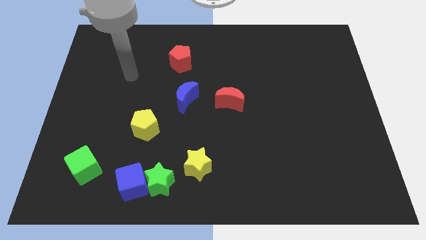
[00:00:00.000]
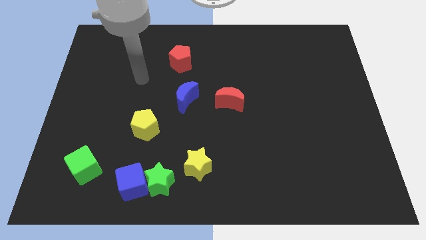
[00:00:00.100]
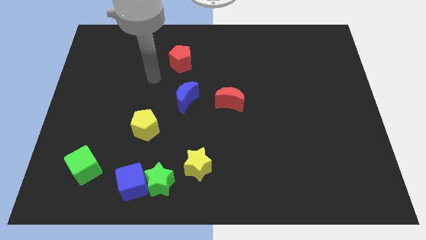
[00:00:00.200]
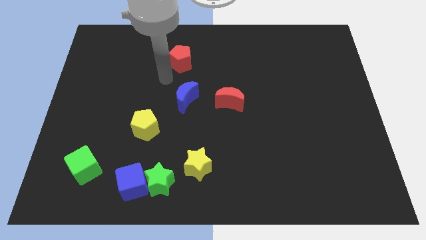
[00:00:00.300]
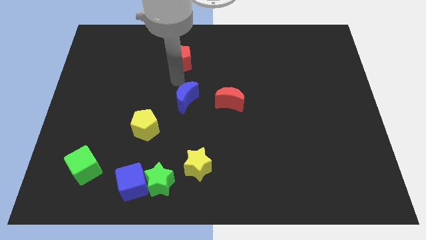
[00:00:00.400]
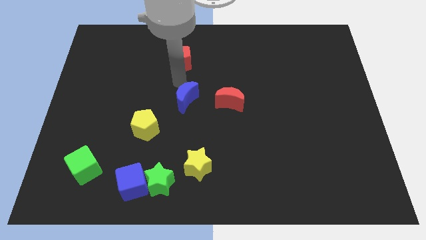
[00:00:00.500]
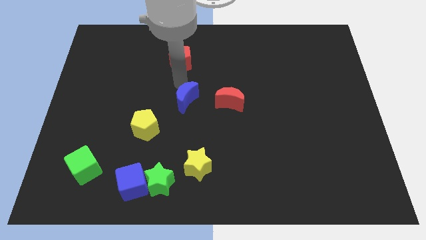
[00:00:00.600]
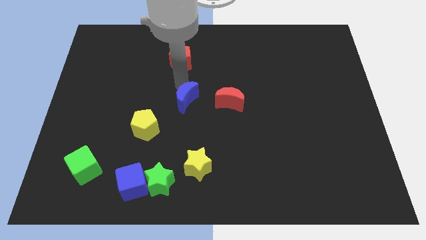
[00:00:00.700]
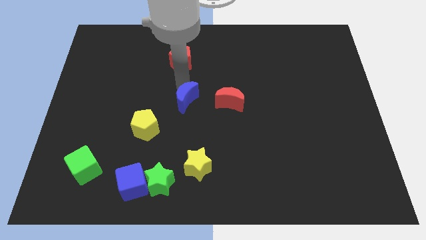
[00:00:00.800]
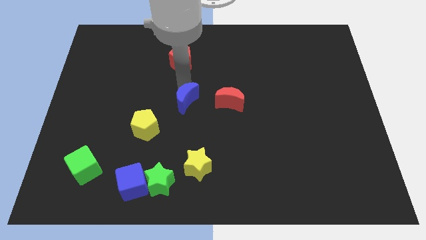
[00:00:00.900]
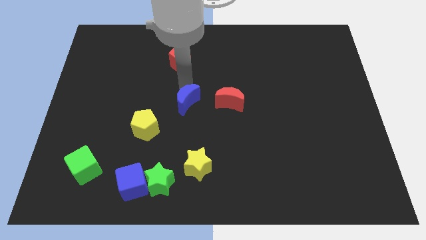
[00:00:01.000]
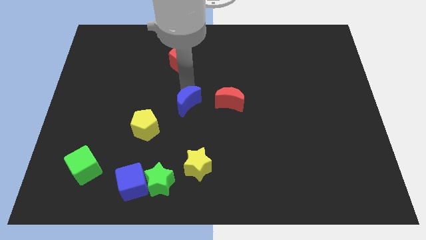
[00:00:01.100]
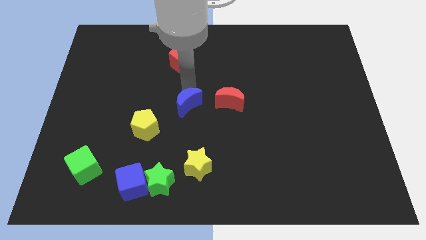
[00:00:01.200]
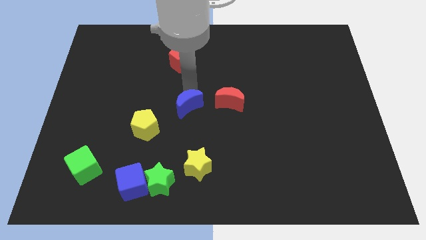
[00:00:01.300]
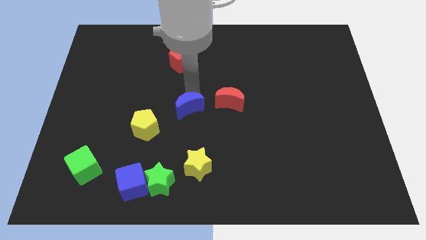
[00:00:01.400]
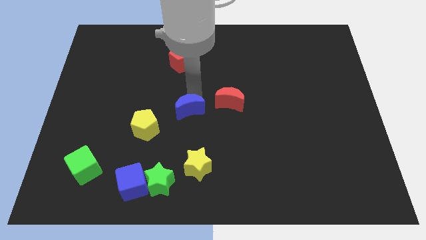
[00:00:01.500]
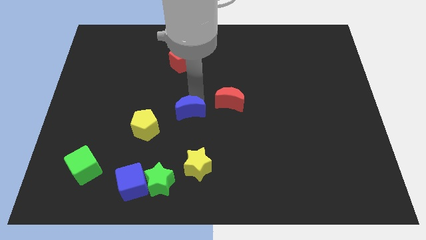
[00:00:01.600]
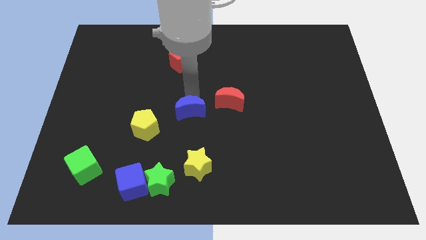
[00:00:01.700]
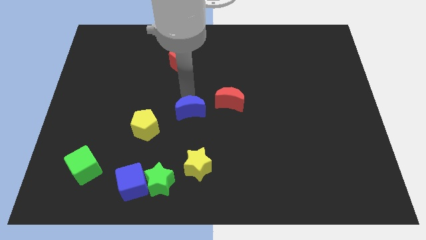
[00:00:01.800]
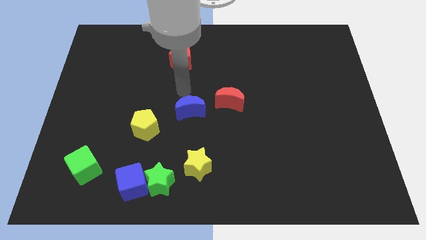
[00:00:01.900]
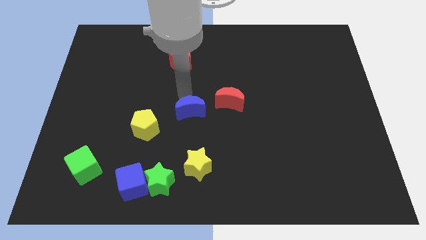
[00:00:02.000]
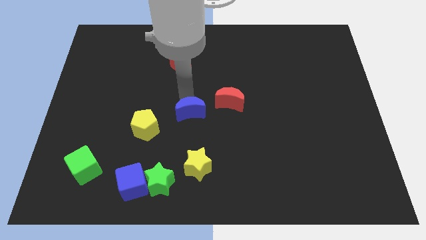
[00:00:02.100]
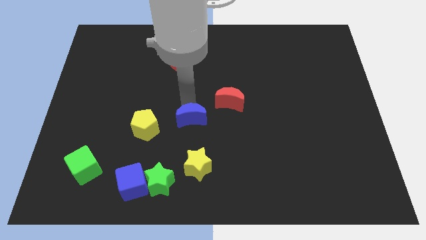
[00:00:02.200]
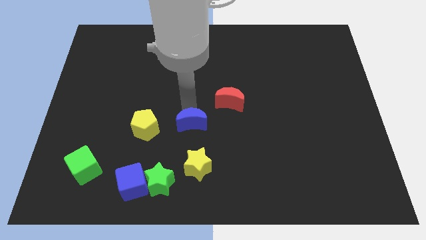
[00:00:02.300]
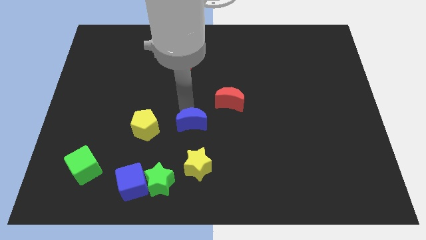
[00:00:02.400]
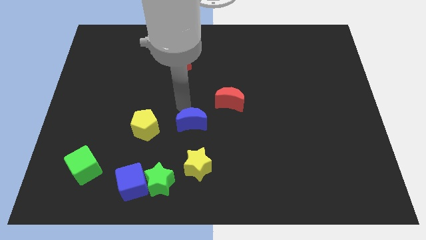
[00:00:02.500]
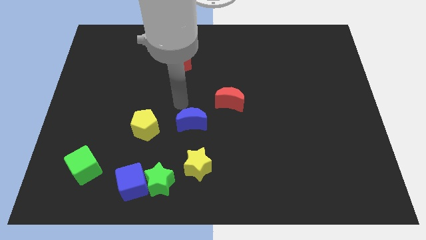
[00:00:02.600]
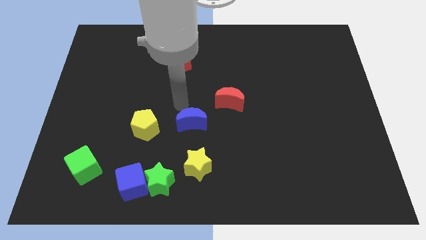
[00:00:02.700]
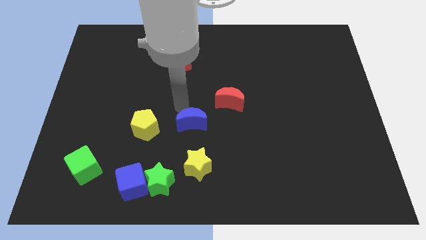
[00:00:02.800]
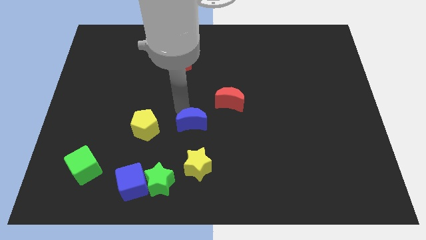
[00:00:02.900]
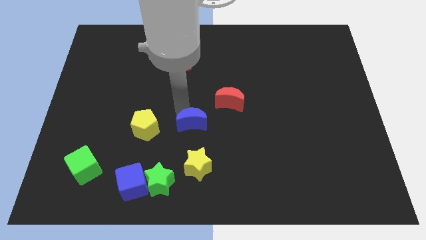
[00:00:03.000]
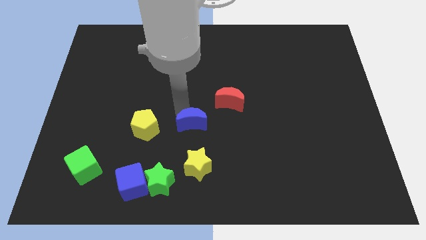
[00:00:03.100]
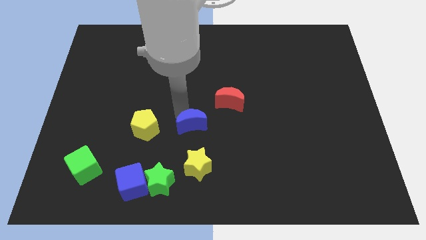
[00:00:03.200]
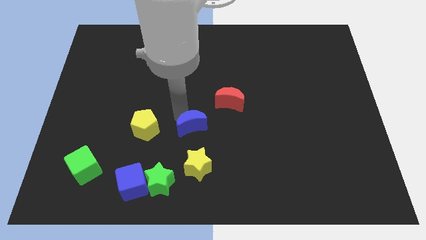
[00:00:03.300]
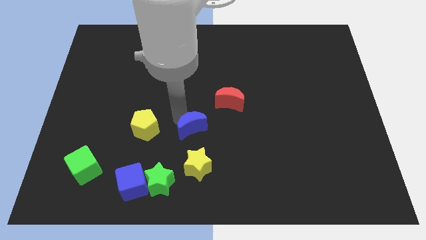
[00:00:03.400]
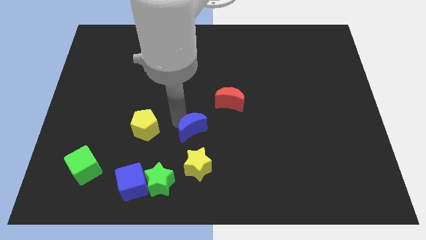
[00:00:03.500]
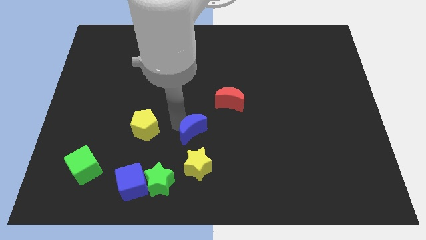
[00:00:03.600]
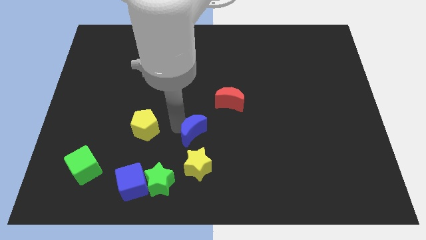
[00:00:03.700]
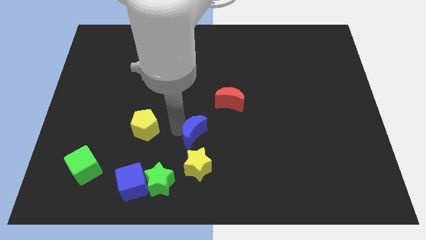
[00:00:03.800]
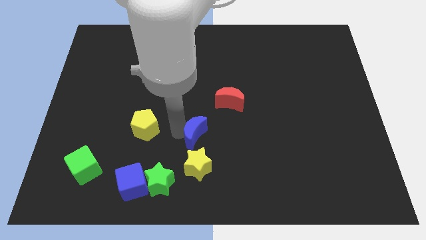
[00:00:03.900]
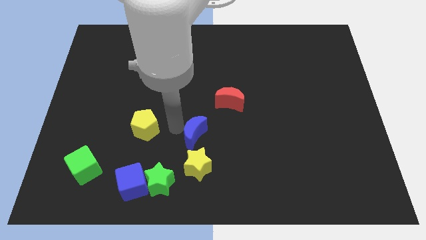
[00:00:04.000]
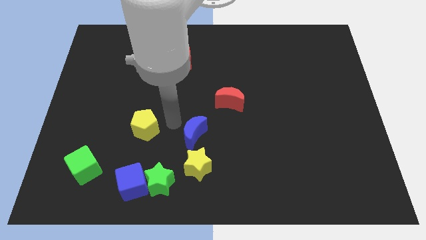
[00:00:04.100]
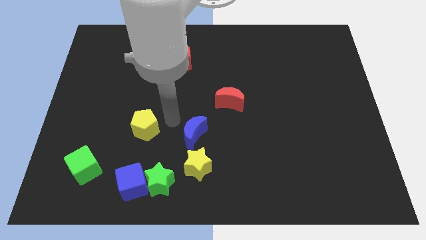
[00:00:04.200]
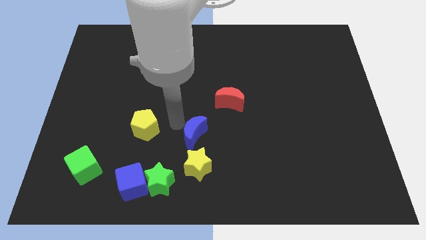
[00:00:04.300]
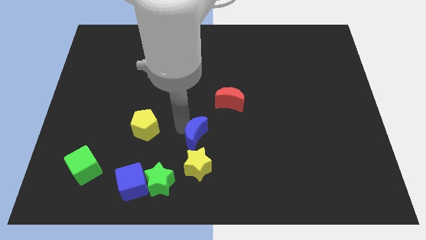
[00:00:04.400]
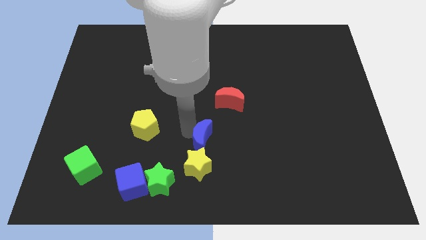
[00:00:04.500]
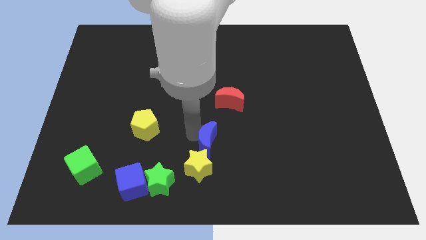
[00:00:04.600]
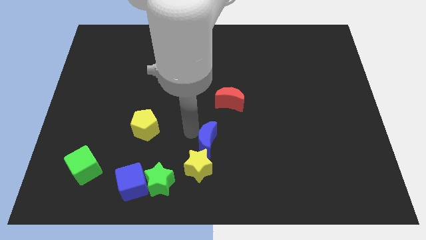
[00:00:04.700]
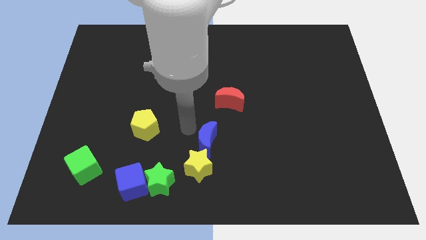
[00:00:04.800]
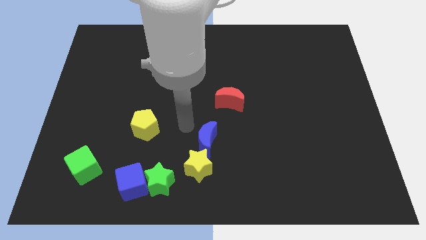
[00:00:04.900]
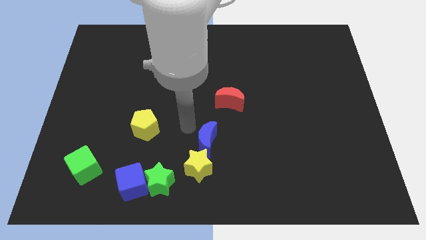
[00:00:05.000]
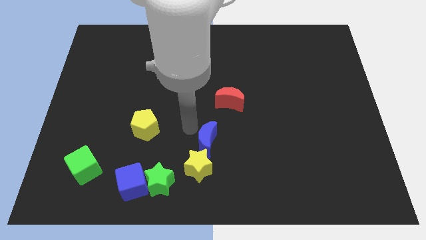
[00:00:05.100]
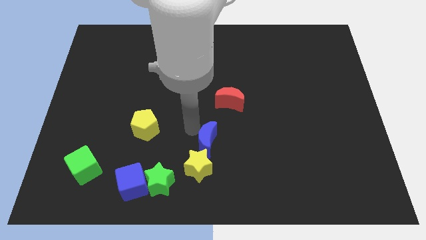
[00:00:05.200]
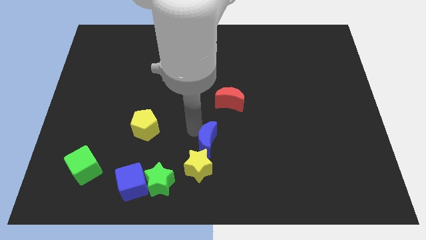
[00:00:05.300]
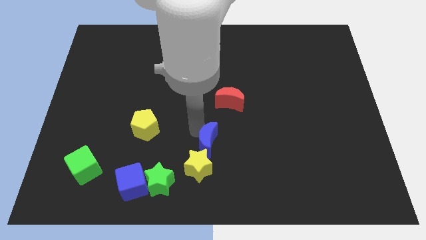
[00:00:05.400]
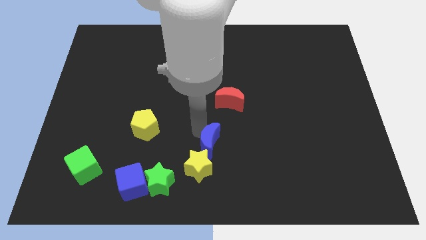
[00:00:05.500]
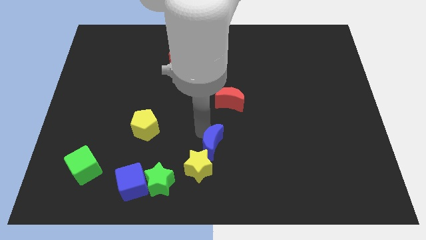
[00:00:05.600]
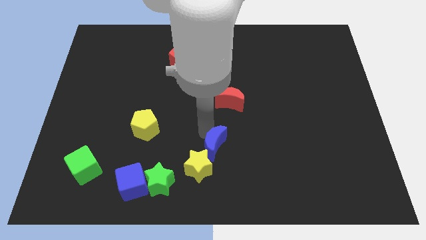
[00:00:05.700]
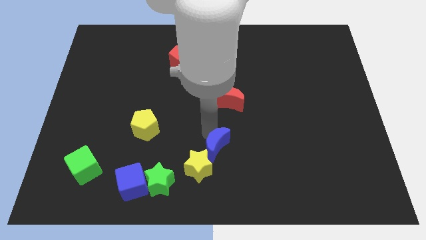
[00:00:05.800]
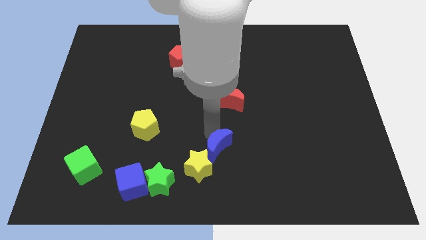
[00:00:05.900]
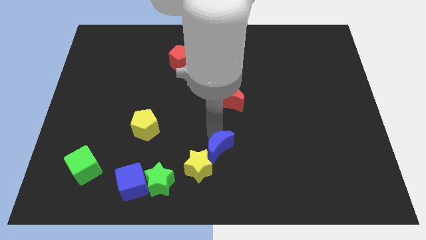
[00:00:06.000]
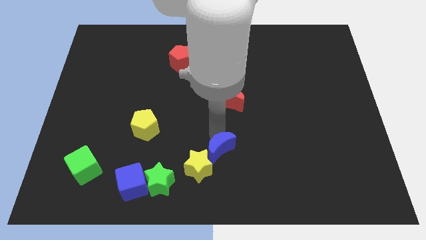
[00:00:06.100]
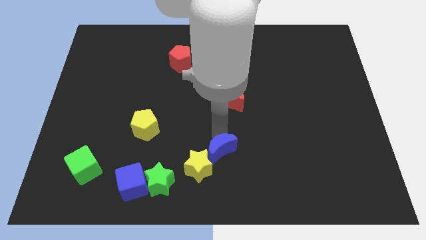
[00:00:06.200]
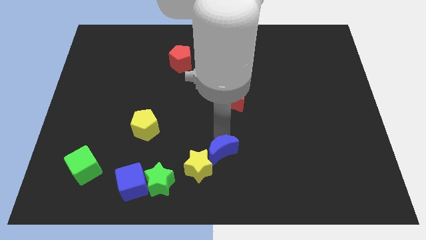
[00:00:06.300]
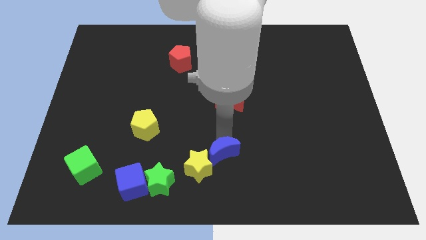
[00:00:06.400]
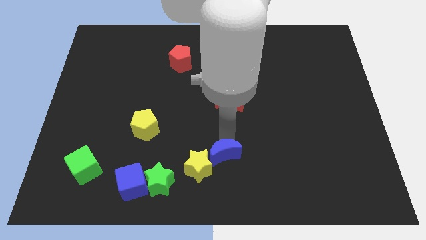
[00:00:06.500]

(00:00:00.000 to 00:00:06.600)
push the blue moon to the bottom

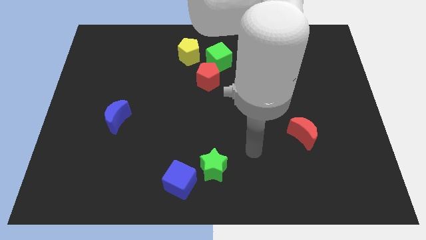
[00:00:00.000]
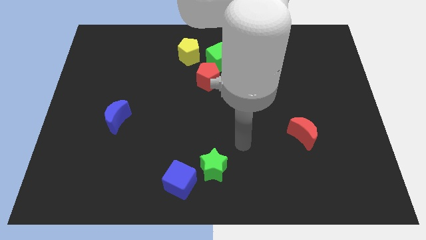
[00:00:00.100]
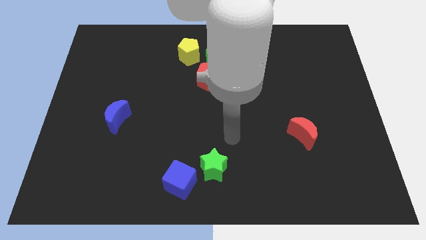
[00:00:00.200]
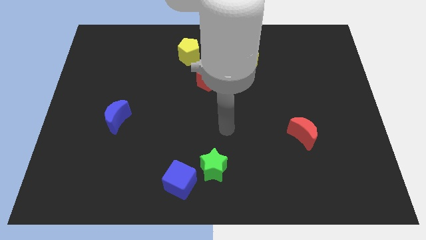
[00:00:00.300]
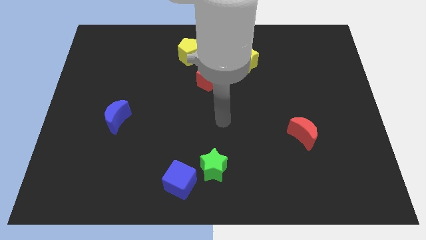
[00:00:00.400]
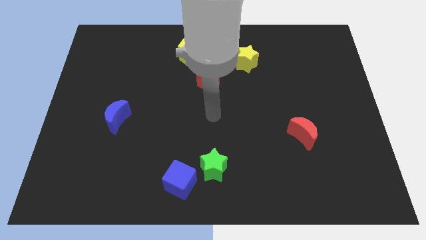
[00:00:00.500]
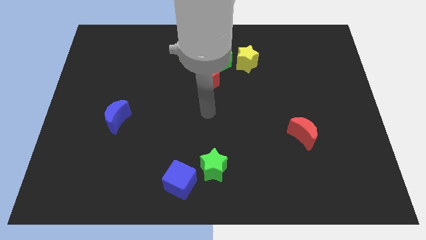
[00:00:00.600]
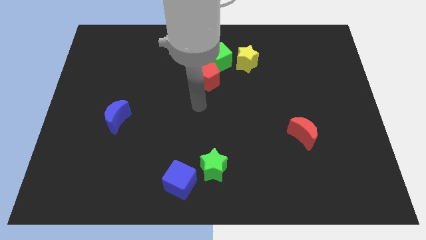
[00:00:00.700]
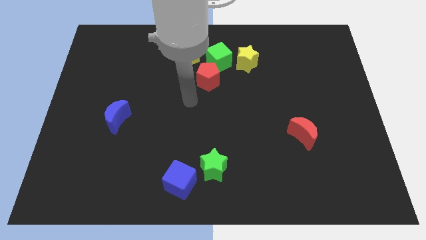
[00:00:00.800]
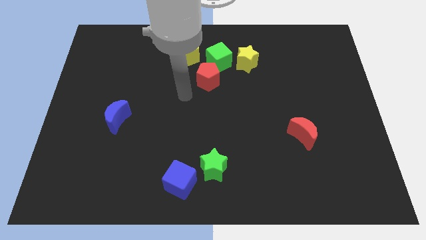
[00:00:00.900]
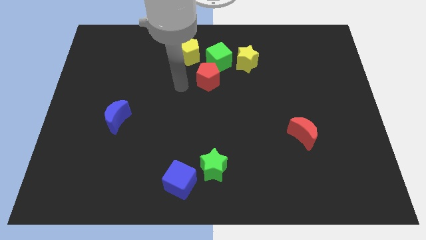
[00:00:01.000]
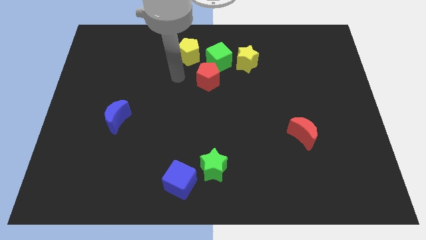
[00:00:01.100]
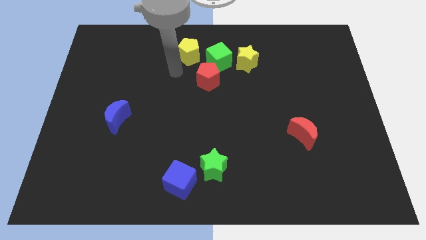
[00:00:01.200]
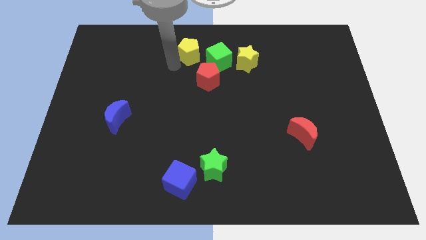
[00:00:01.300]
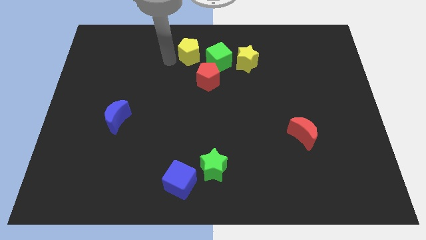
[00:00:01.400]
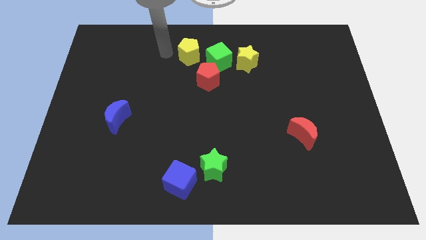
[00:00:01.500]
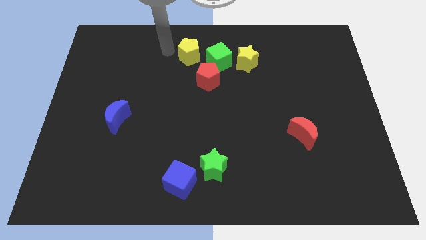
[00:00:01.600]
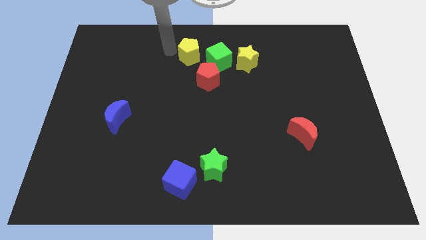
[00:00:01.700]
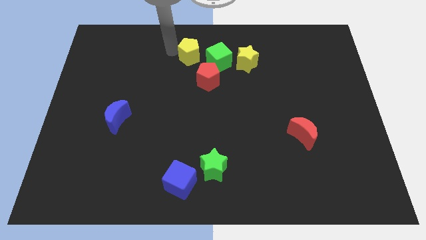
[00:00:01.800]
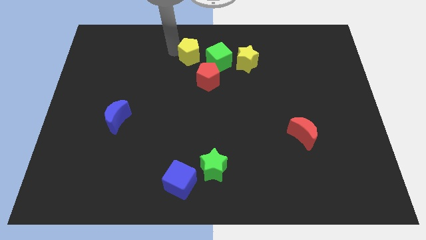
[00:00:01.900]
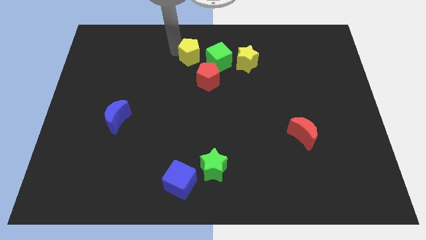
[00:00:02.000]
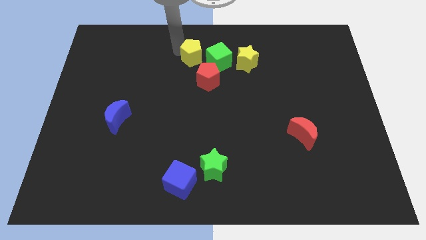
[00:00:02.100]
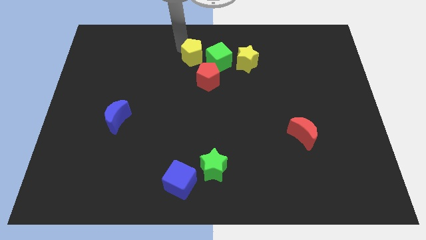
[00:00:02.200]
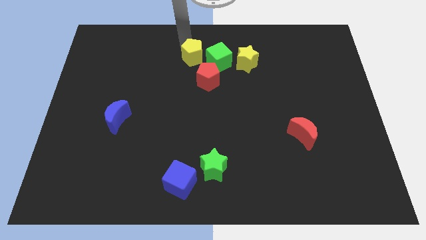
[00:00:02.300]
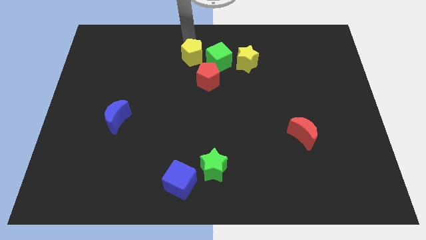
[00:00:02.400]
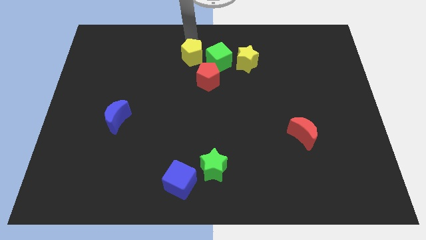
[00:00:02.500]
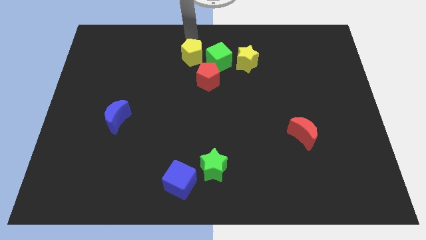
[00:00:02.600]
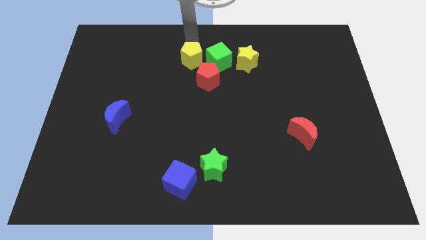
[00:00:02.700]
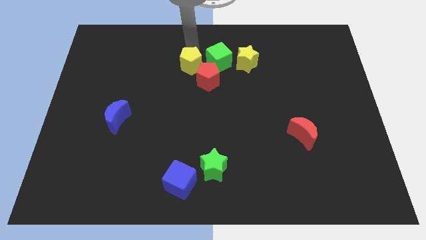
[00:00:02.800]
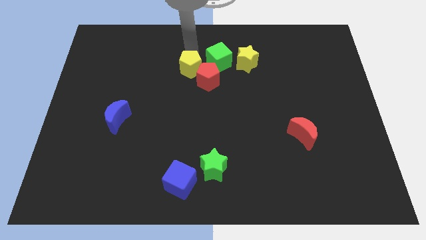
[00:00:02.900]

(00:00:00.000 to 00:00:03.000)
push the yellow pentagon to the middle
